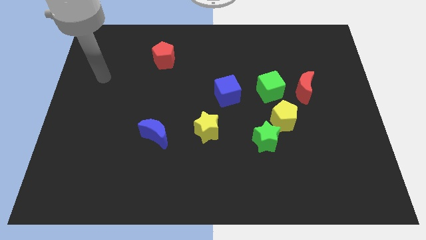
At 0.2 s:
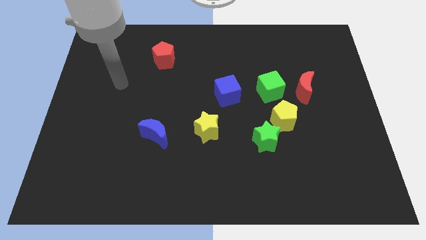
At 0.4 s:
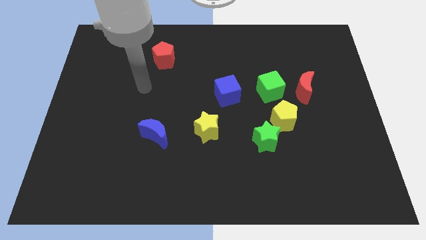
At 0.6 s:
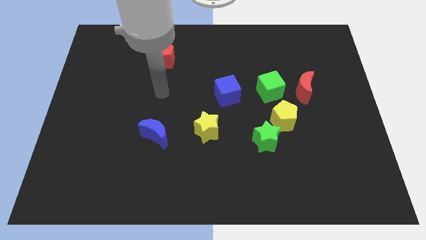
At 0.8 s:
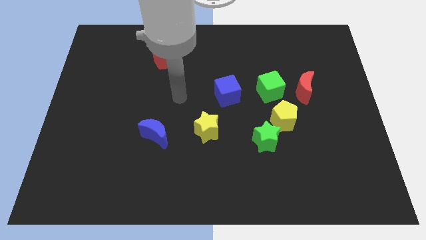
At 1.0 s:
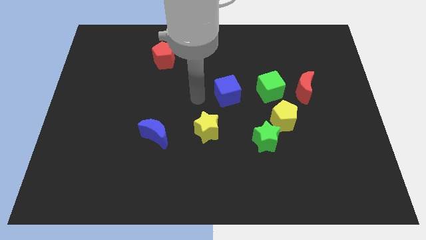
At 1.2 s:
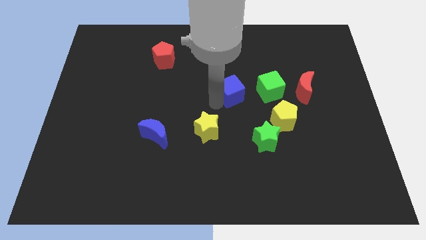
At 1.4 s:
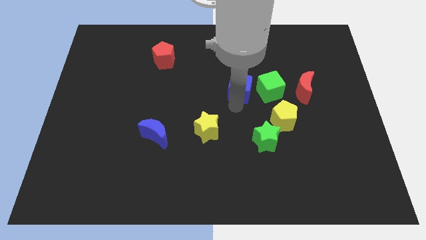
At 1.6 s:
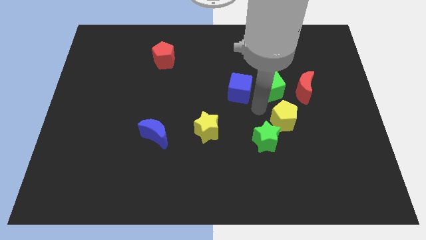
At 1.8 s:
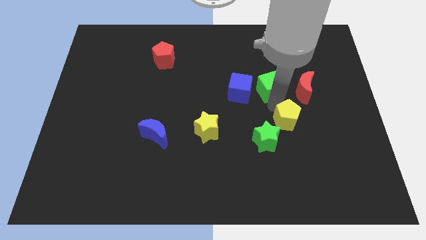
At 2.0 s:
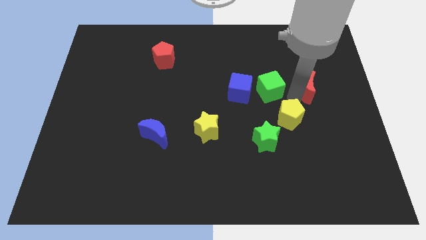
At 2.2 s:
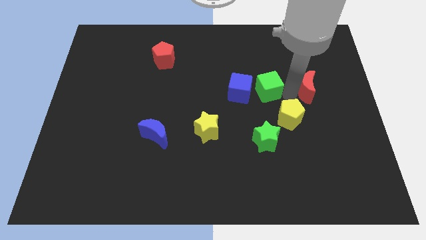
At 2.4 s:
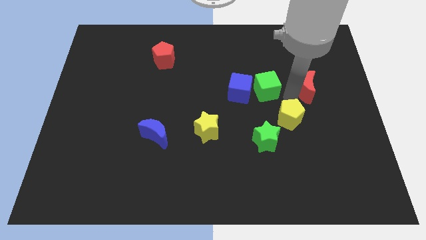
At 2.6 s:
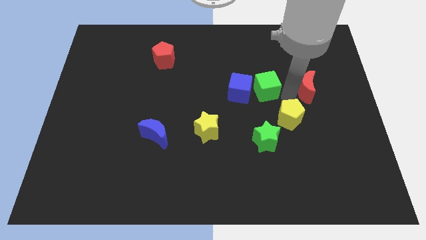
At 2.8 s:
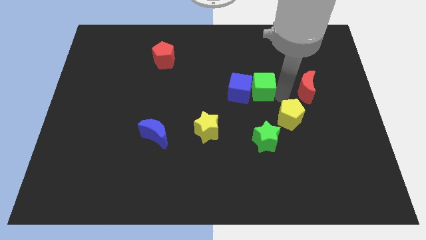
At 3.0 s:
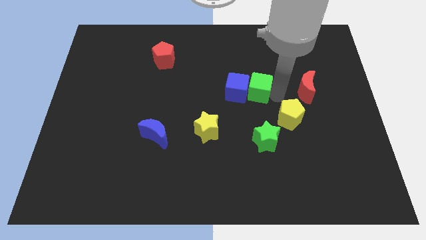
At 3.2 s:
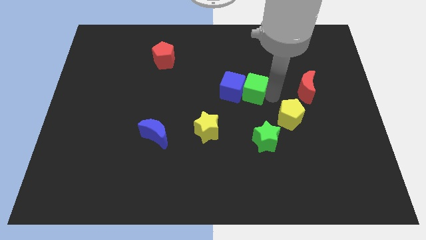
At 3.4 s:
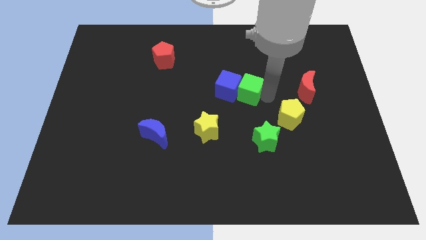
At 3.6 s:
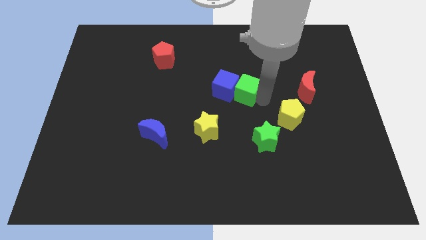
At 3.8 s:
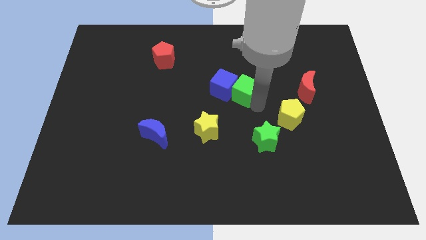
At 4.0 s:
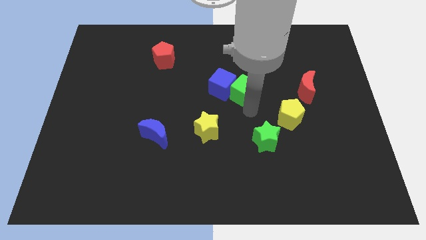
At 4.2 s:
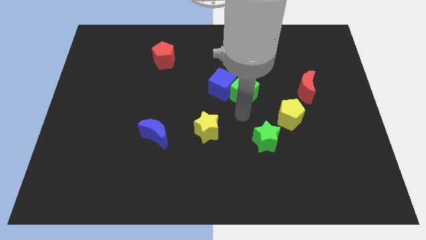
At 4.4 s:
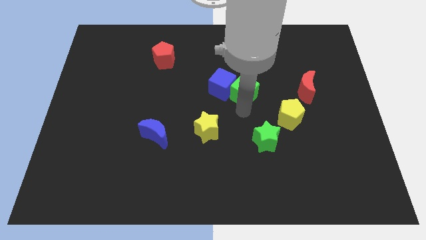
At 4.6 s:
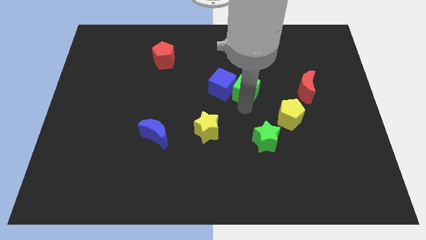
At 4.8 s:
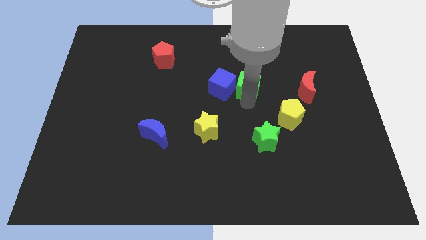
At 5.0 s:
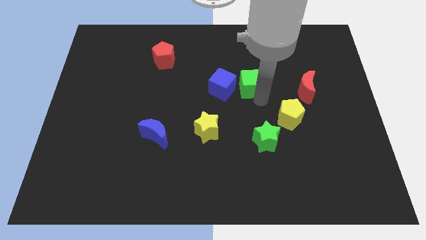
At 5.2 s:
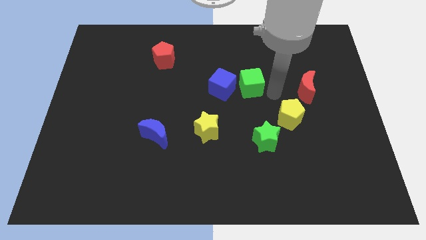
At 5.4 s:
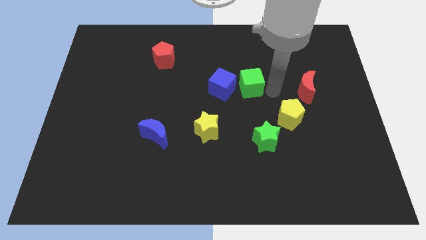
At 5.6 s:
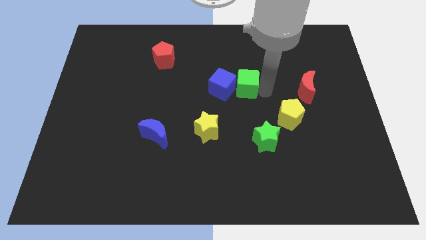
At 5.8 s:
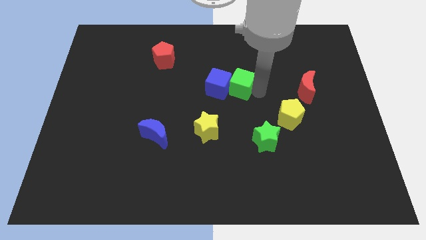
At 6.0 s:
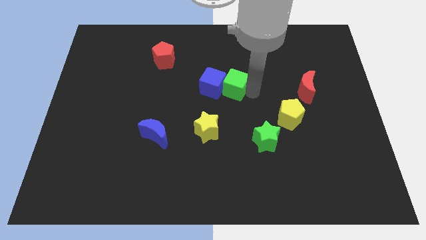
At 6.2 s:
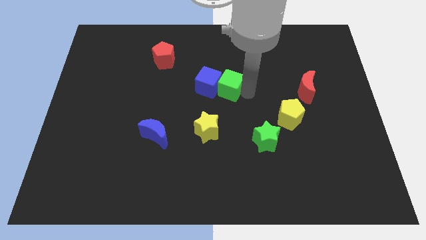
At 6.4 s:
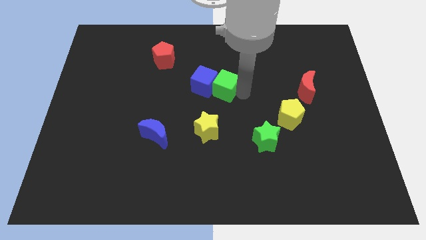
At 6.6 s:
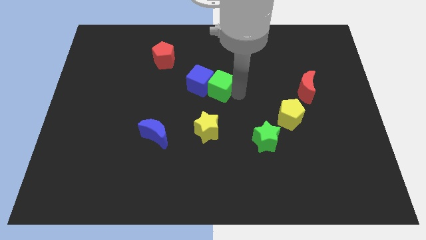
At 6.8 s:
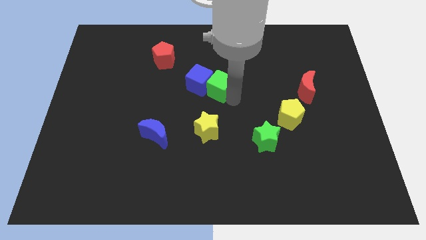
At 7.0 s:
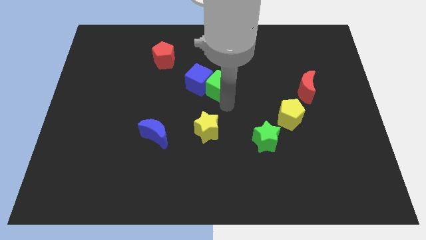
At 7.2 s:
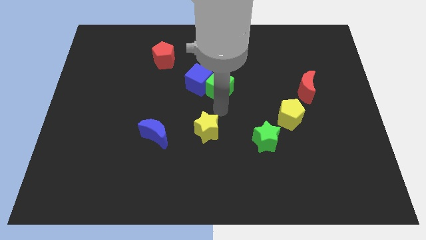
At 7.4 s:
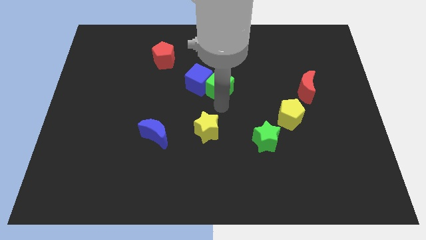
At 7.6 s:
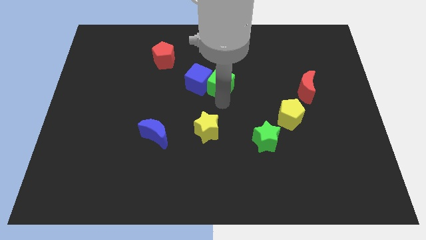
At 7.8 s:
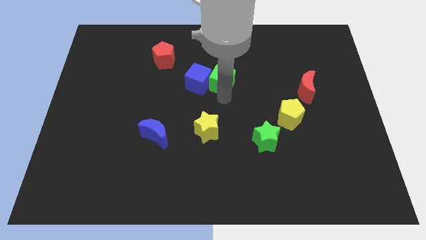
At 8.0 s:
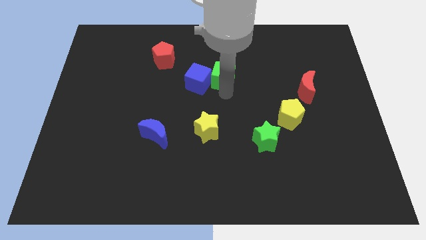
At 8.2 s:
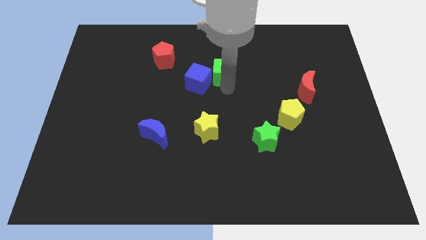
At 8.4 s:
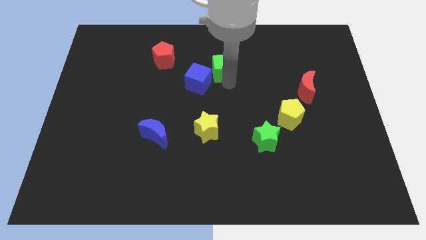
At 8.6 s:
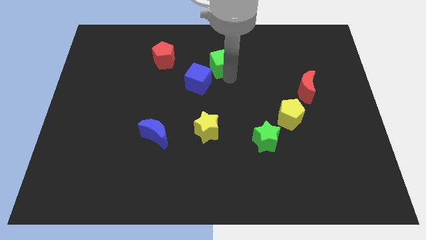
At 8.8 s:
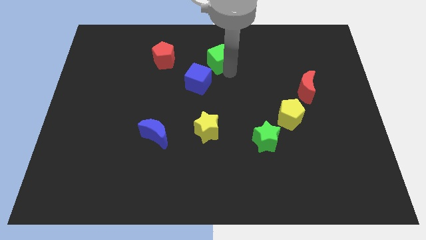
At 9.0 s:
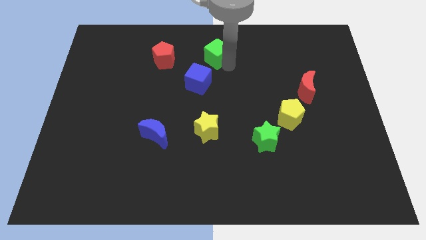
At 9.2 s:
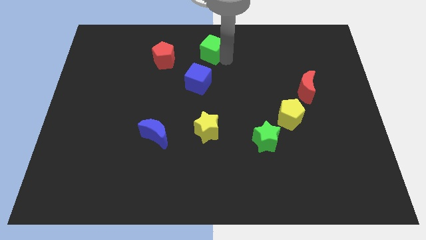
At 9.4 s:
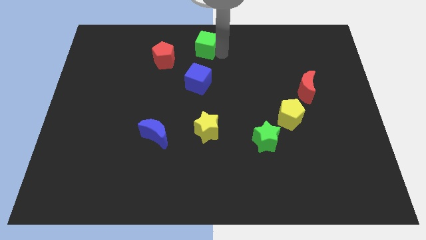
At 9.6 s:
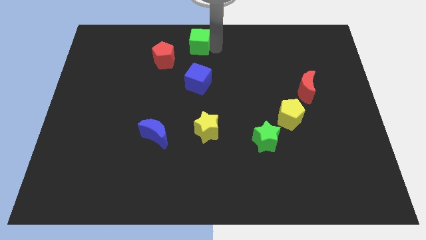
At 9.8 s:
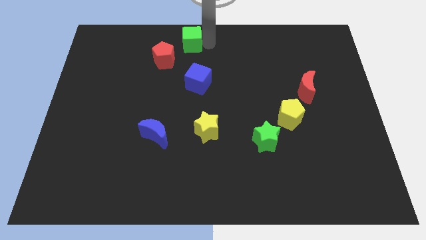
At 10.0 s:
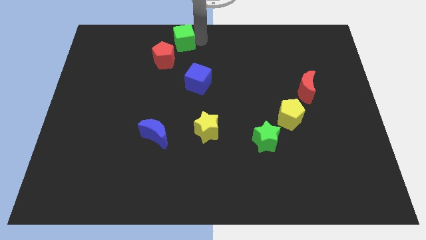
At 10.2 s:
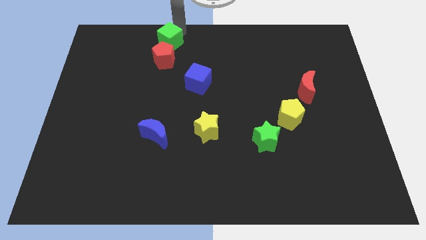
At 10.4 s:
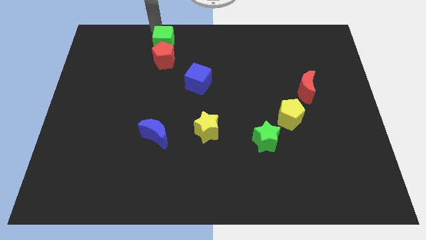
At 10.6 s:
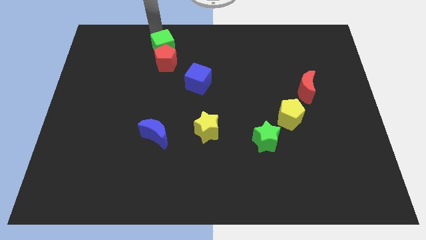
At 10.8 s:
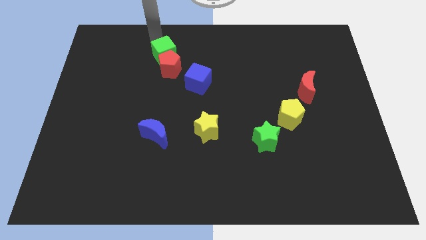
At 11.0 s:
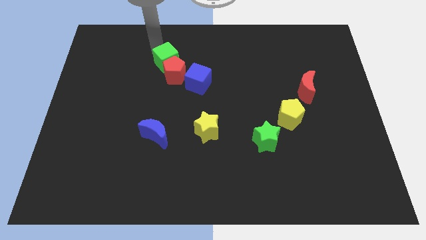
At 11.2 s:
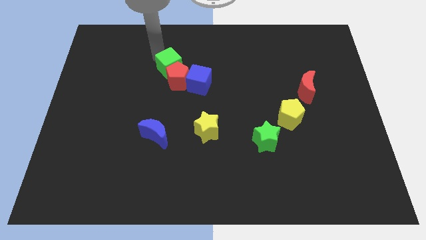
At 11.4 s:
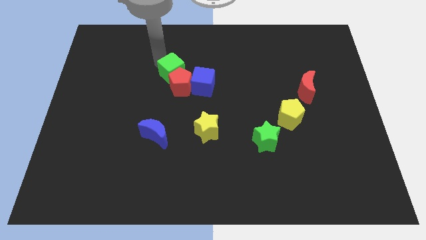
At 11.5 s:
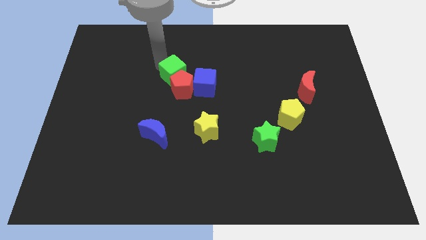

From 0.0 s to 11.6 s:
move the green cube to the left of the blue cube

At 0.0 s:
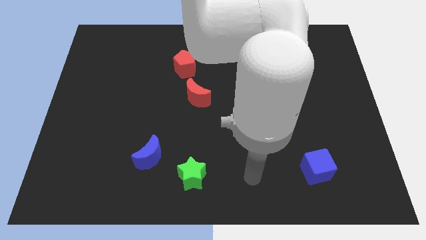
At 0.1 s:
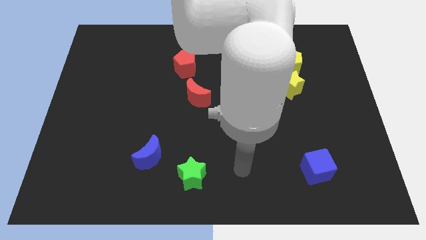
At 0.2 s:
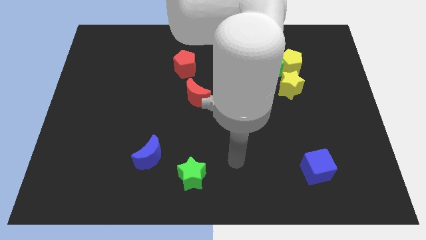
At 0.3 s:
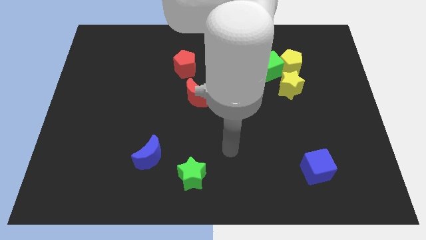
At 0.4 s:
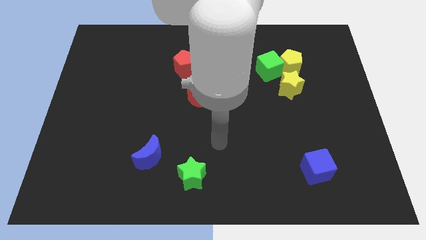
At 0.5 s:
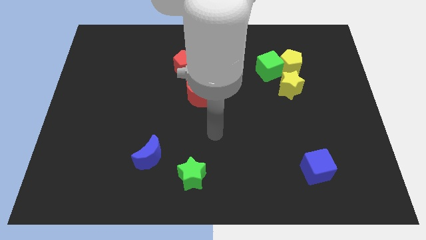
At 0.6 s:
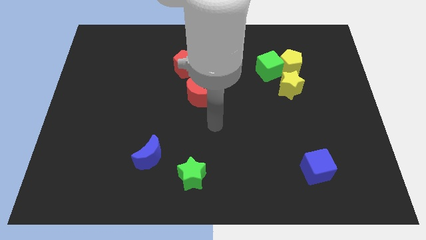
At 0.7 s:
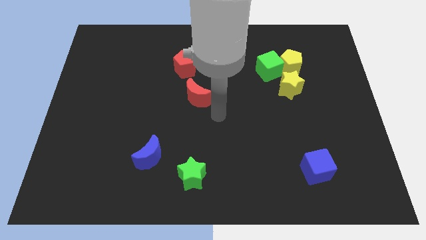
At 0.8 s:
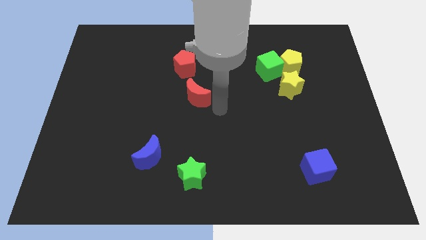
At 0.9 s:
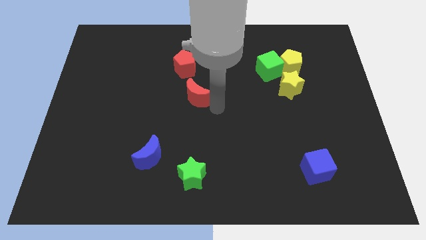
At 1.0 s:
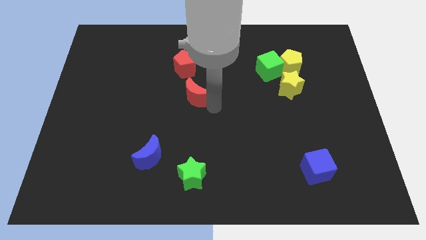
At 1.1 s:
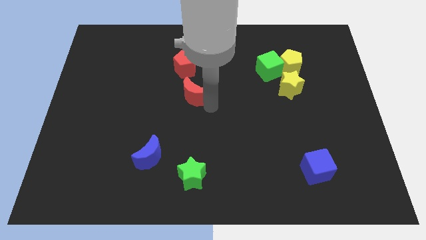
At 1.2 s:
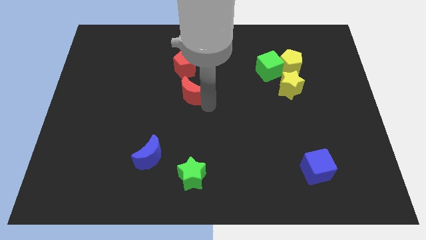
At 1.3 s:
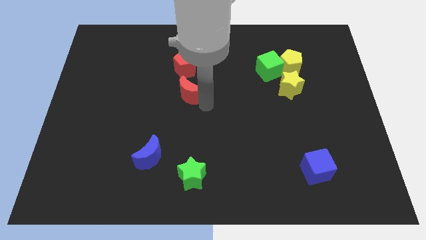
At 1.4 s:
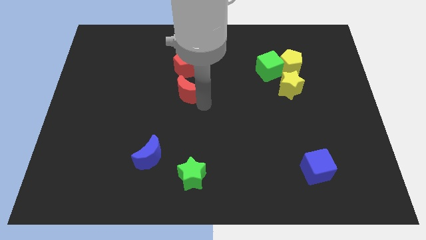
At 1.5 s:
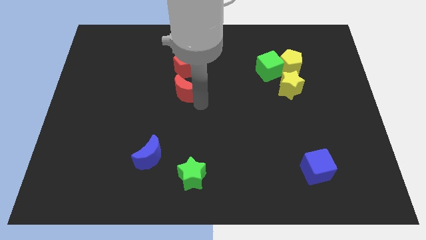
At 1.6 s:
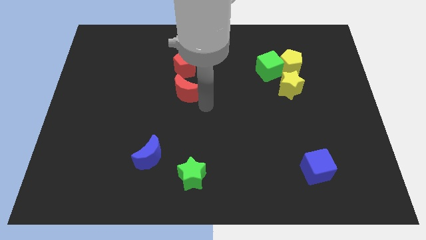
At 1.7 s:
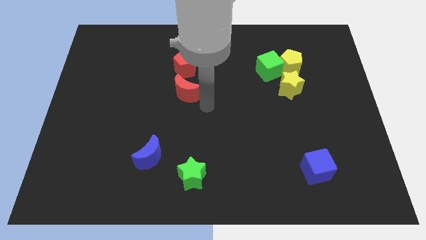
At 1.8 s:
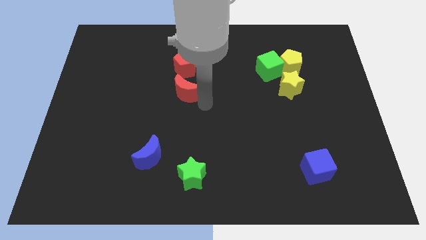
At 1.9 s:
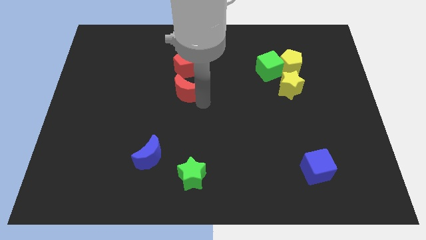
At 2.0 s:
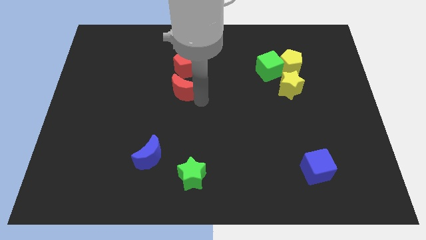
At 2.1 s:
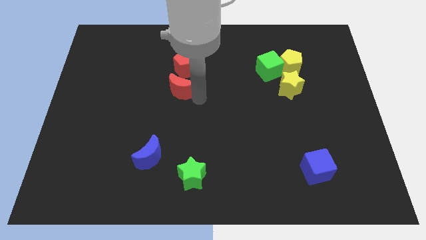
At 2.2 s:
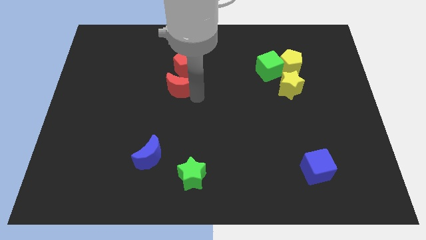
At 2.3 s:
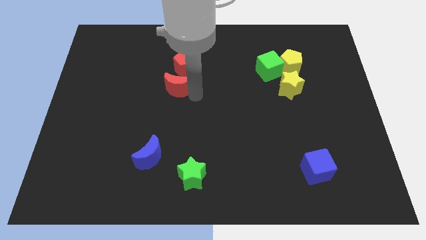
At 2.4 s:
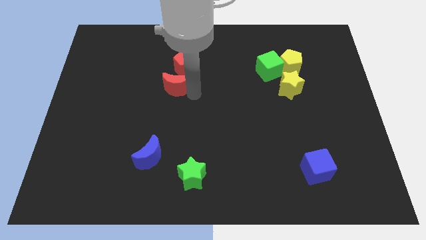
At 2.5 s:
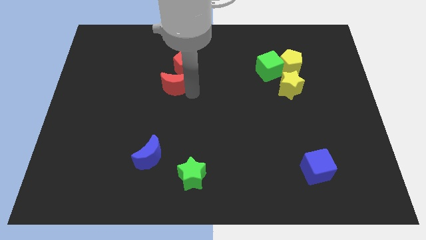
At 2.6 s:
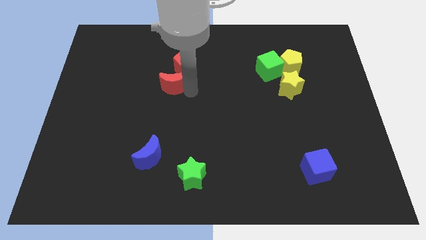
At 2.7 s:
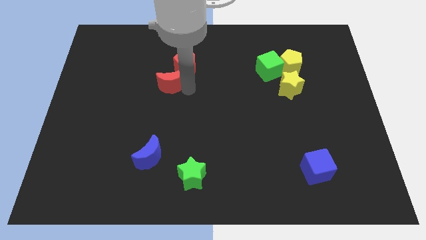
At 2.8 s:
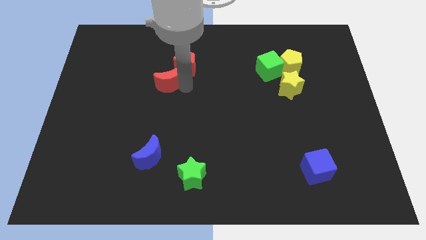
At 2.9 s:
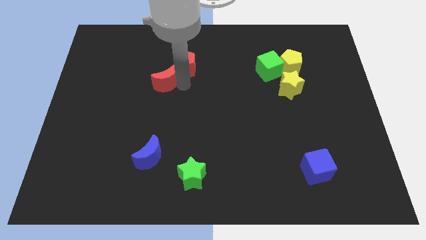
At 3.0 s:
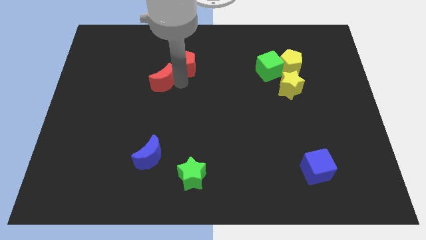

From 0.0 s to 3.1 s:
push the red moon to the left side of the red pentagon
